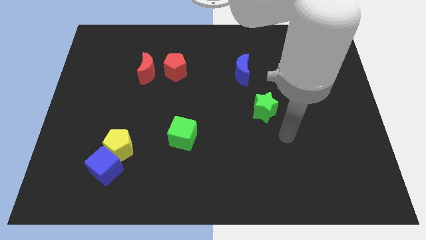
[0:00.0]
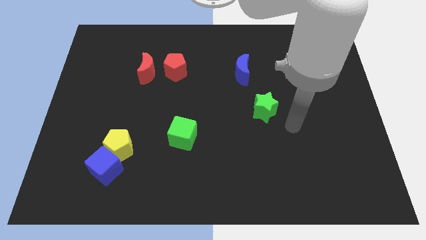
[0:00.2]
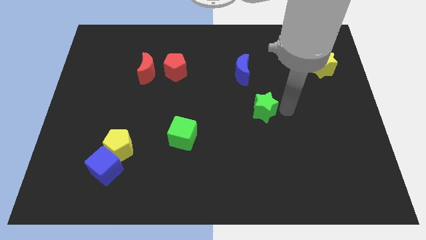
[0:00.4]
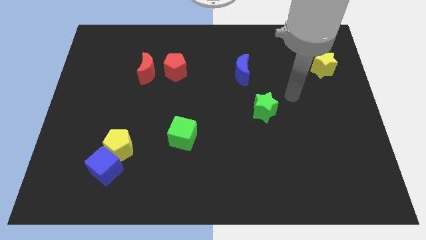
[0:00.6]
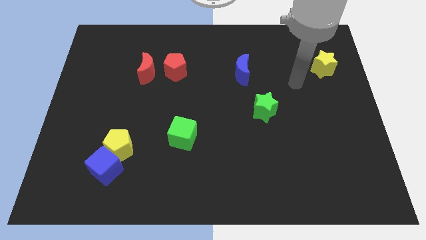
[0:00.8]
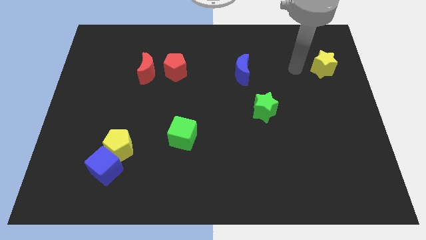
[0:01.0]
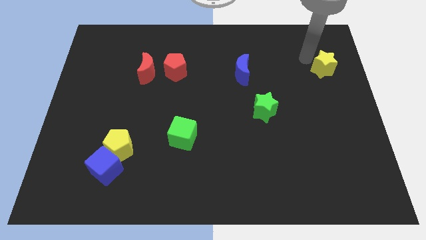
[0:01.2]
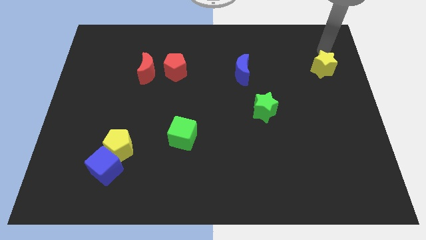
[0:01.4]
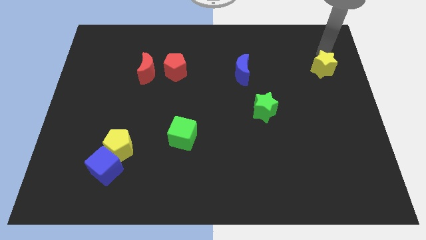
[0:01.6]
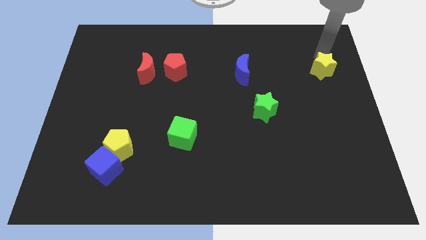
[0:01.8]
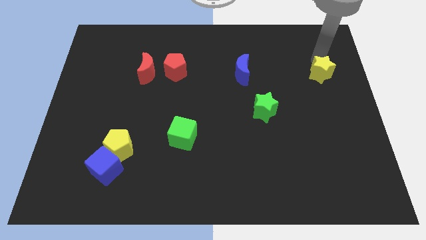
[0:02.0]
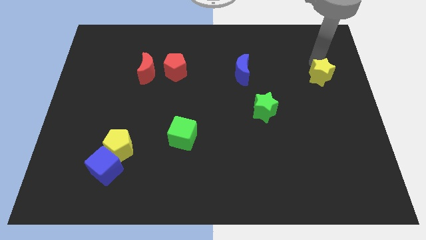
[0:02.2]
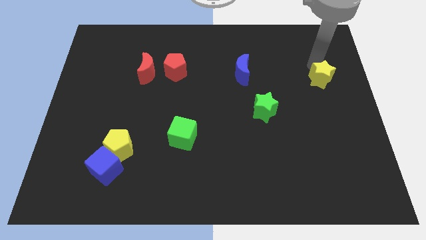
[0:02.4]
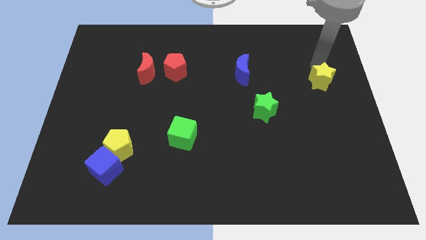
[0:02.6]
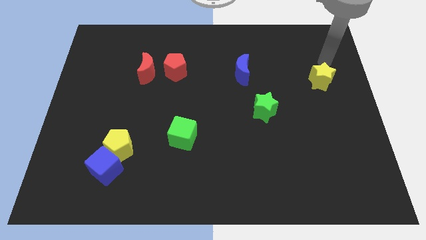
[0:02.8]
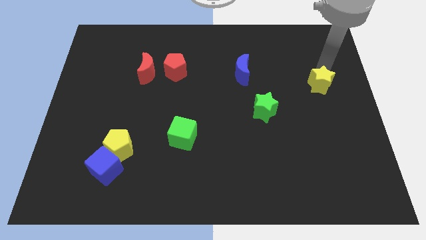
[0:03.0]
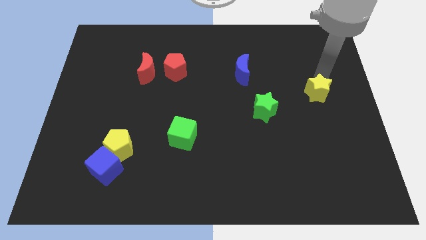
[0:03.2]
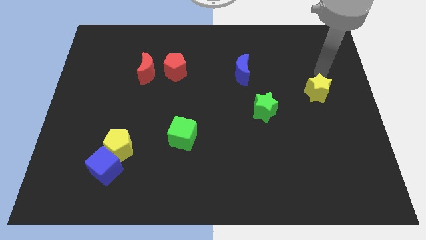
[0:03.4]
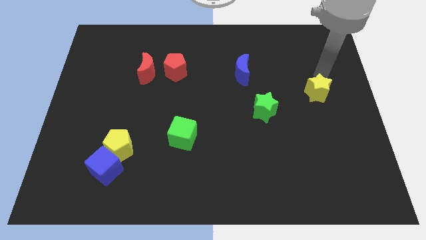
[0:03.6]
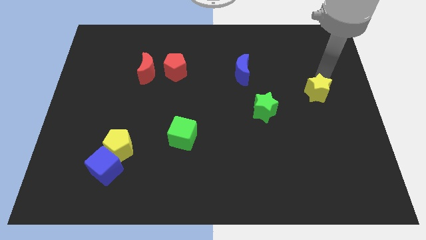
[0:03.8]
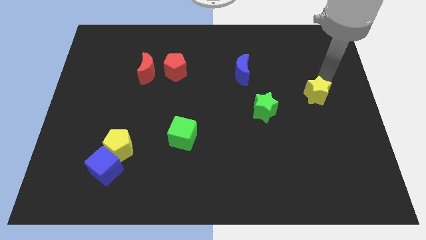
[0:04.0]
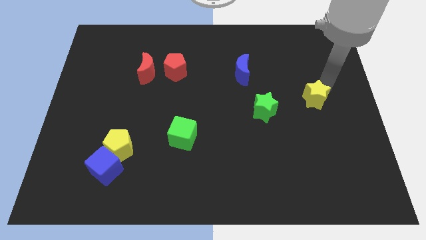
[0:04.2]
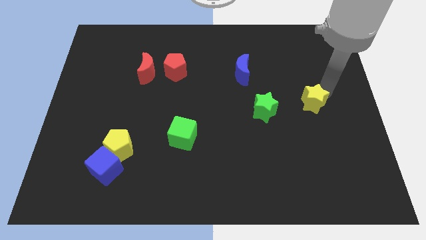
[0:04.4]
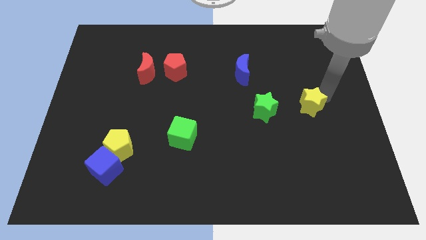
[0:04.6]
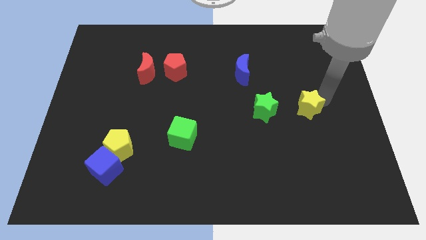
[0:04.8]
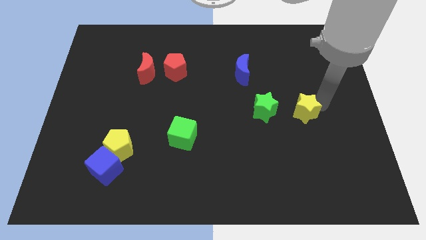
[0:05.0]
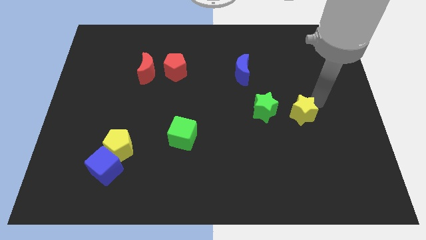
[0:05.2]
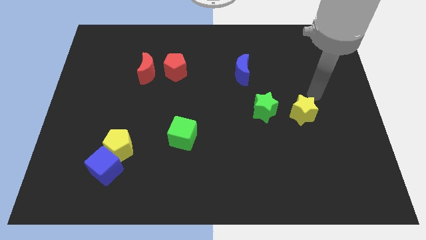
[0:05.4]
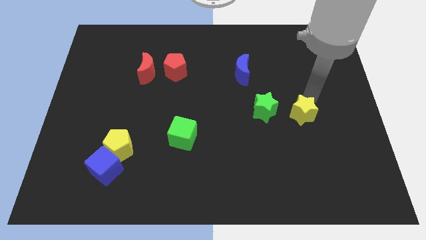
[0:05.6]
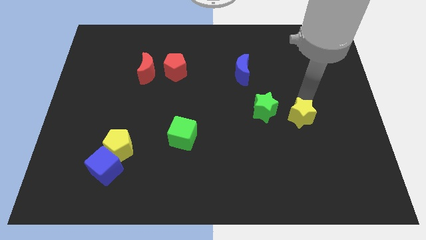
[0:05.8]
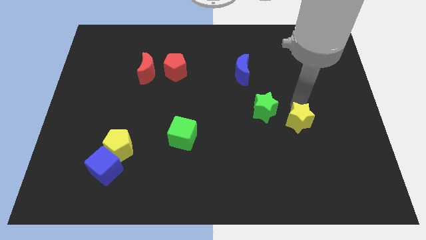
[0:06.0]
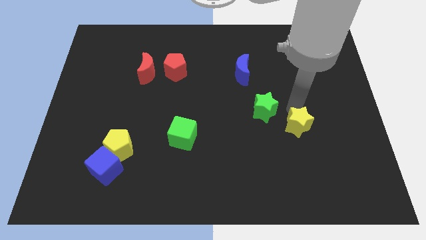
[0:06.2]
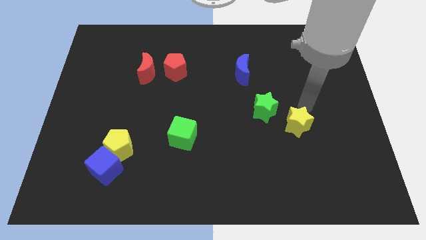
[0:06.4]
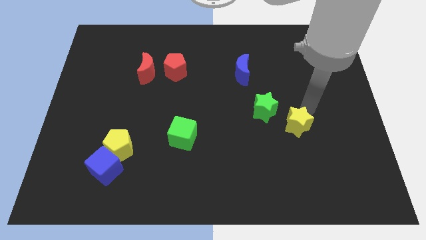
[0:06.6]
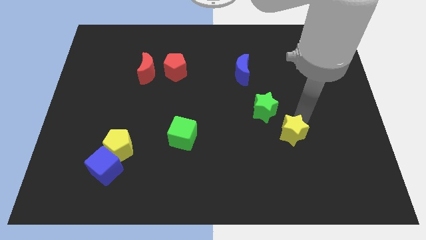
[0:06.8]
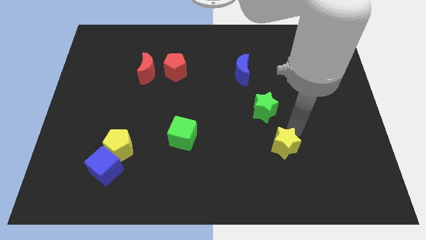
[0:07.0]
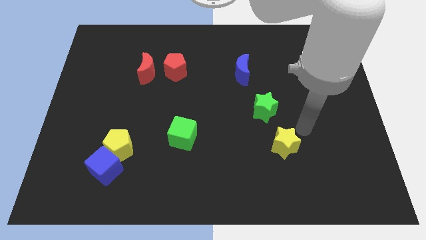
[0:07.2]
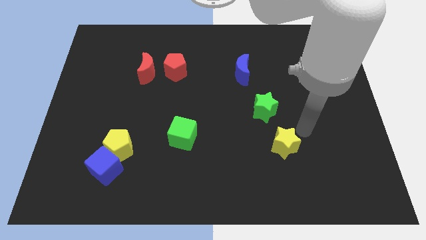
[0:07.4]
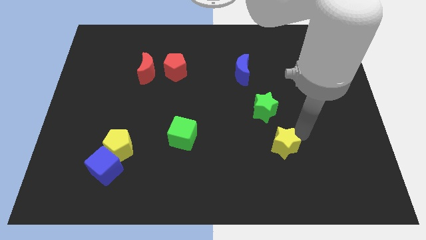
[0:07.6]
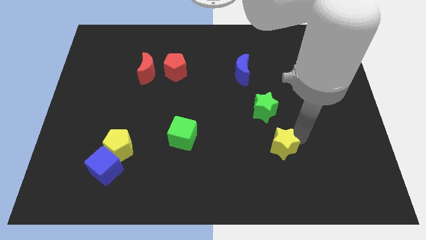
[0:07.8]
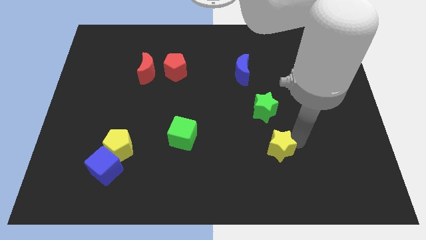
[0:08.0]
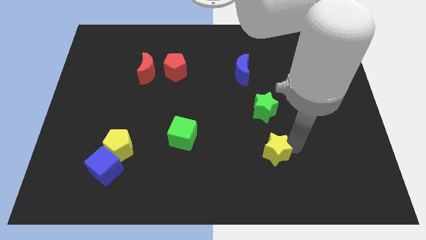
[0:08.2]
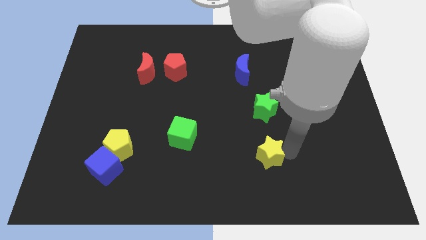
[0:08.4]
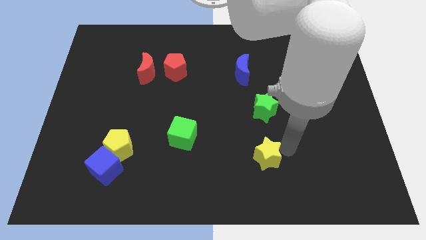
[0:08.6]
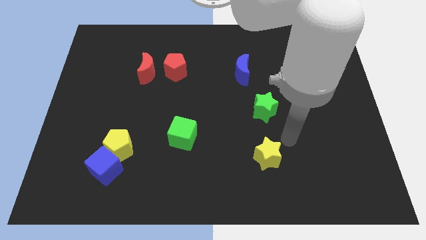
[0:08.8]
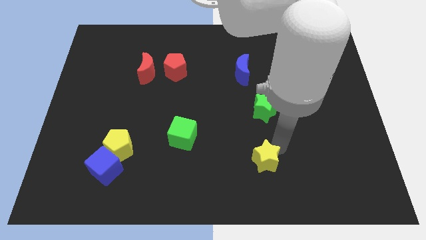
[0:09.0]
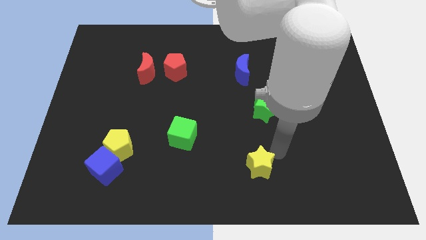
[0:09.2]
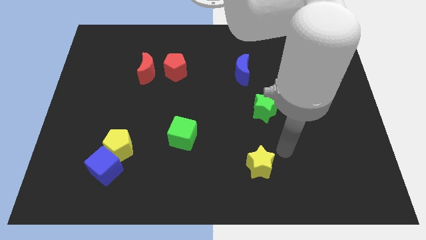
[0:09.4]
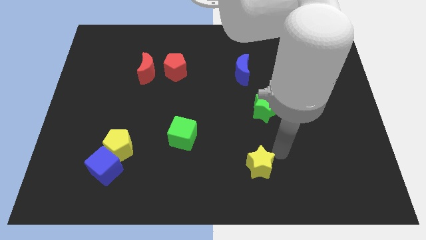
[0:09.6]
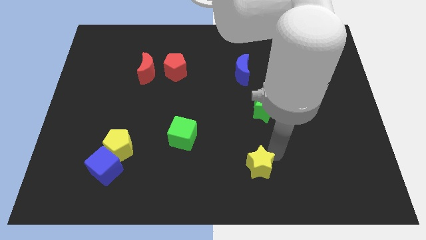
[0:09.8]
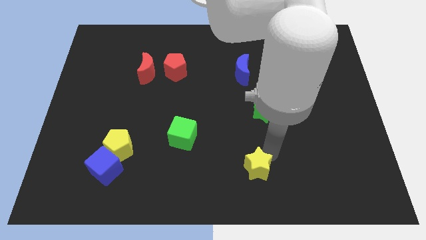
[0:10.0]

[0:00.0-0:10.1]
slide the yellow star to the bottom

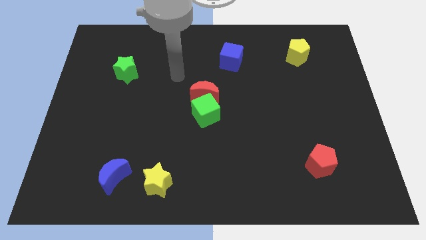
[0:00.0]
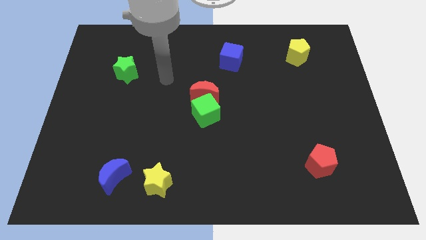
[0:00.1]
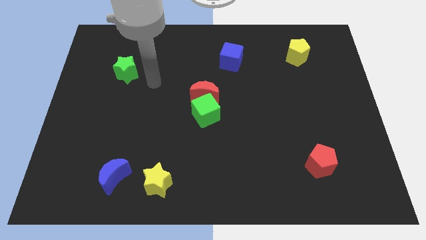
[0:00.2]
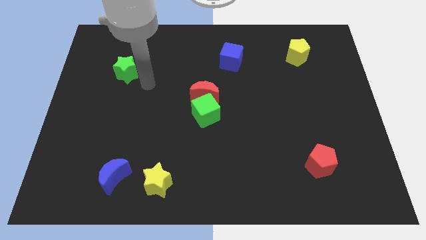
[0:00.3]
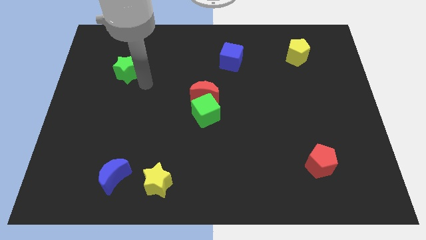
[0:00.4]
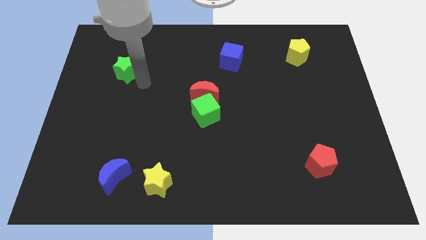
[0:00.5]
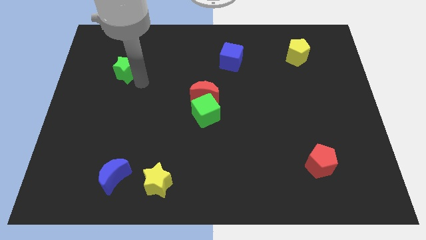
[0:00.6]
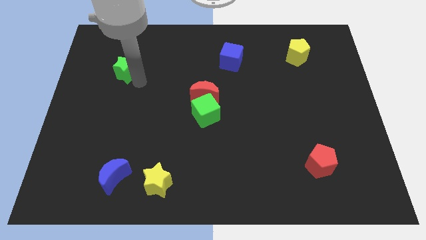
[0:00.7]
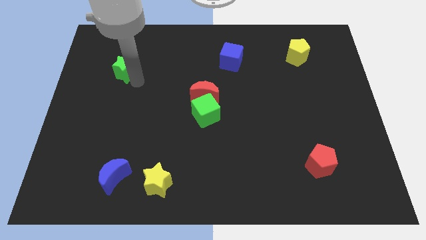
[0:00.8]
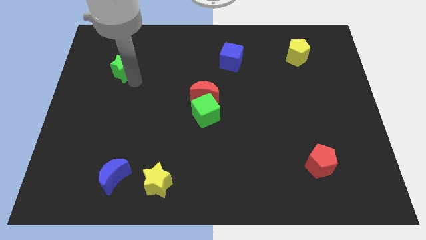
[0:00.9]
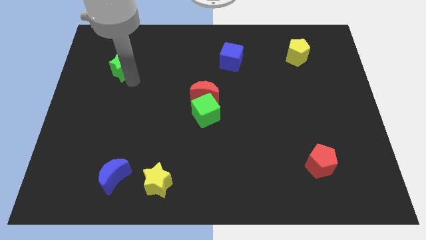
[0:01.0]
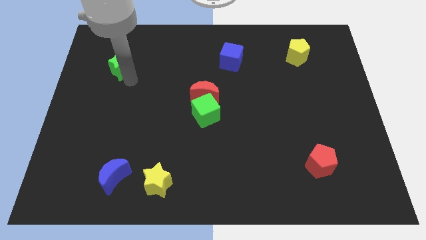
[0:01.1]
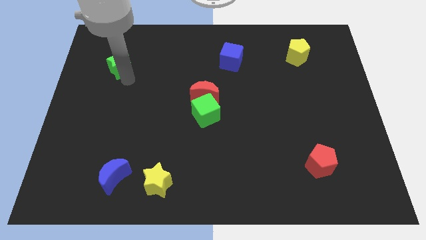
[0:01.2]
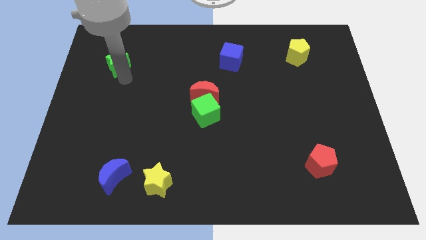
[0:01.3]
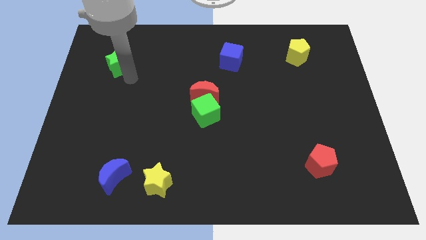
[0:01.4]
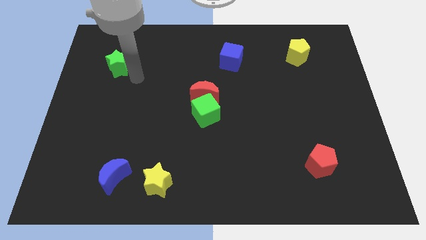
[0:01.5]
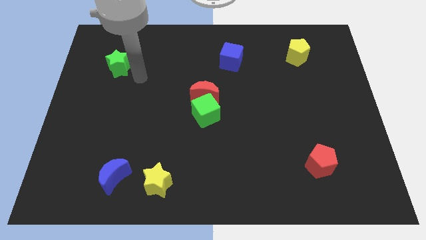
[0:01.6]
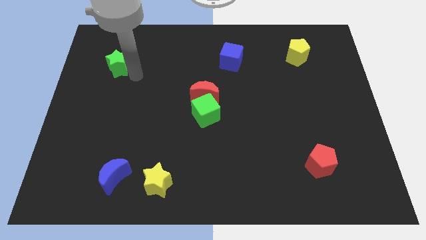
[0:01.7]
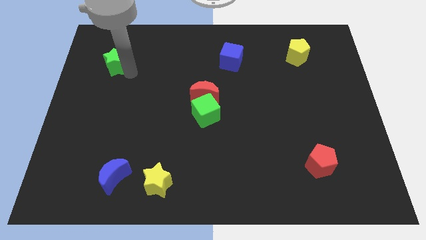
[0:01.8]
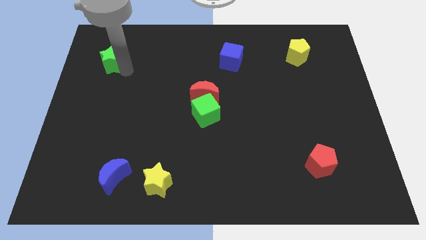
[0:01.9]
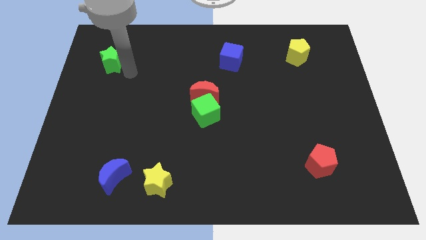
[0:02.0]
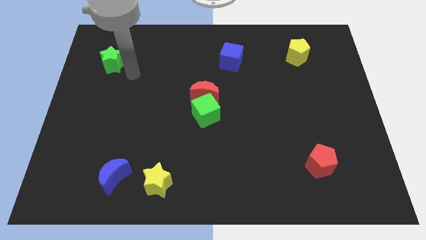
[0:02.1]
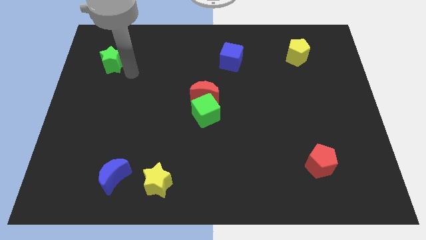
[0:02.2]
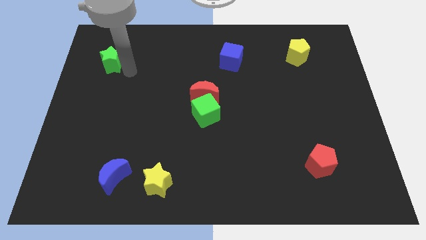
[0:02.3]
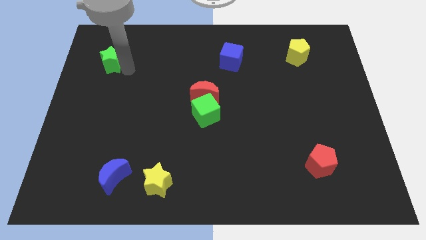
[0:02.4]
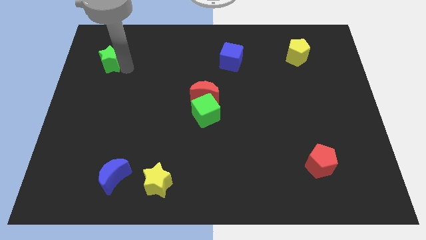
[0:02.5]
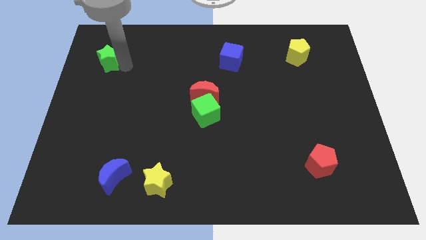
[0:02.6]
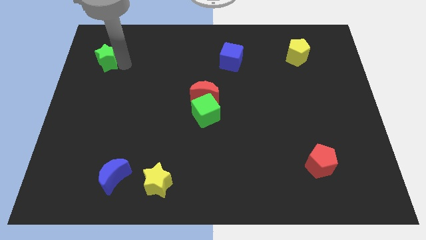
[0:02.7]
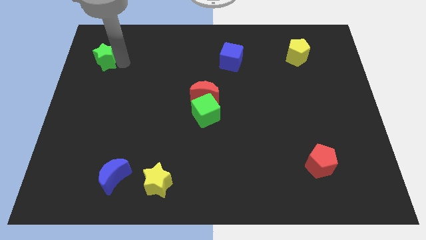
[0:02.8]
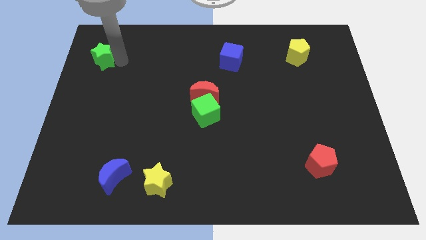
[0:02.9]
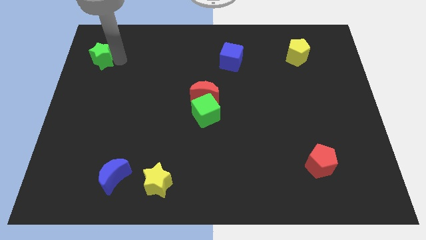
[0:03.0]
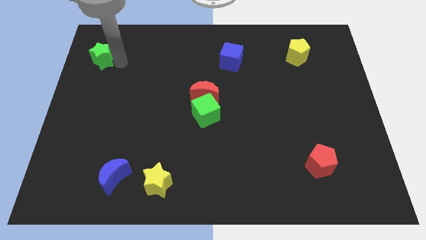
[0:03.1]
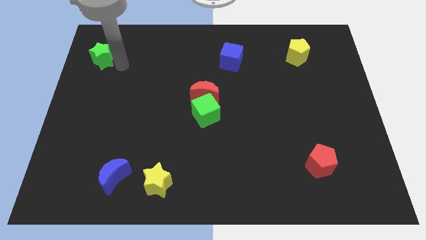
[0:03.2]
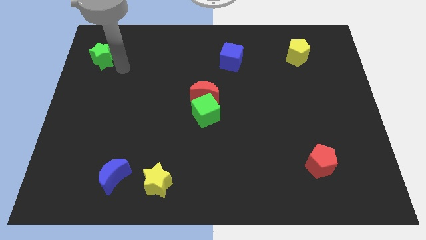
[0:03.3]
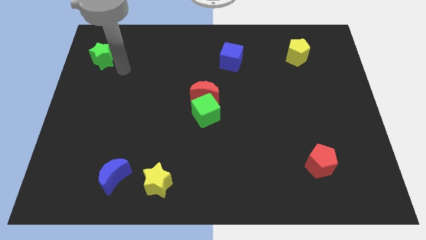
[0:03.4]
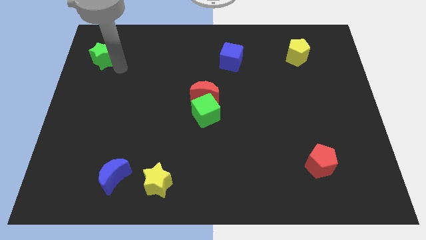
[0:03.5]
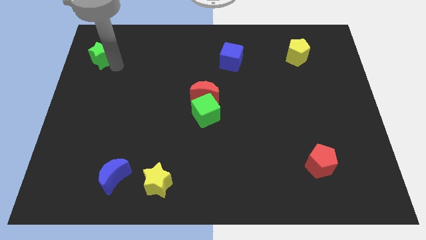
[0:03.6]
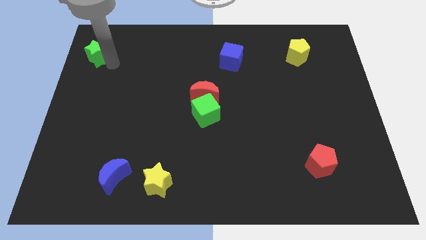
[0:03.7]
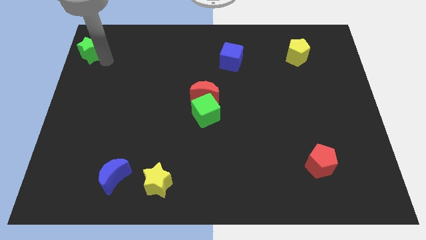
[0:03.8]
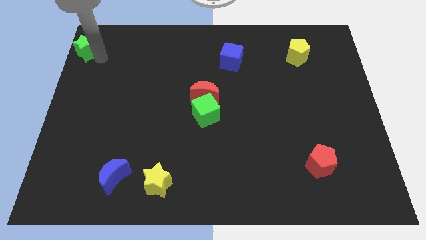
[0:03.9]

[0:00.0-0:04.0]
push the green star to the upper left corner
